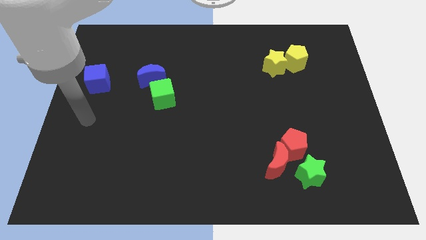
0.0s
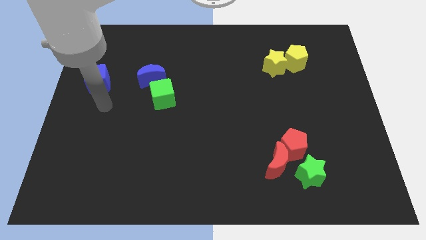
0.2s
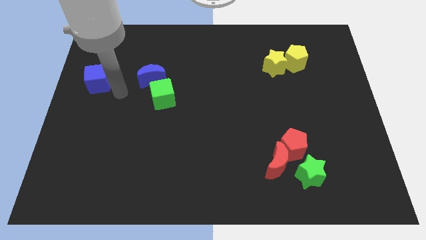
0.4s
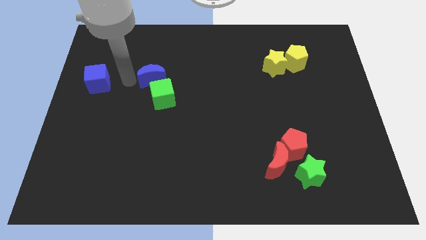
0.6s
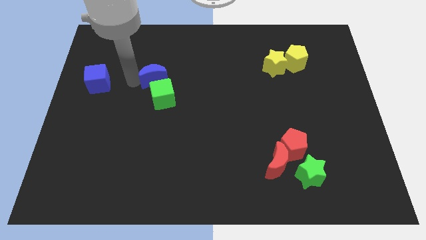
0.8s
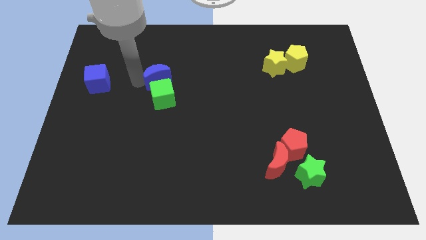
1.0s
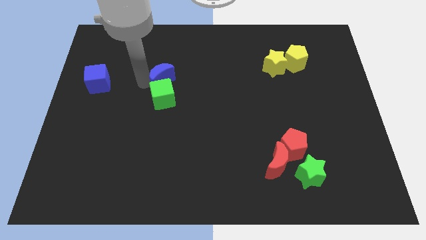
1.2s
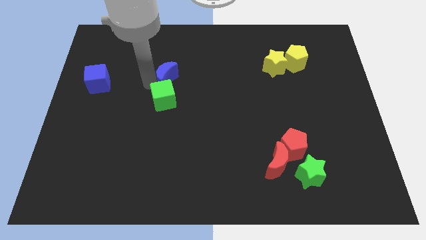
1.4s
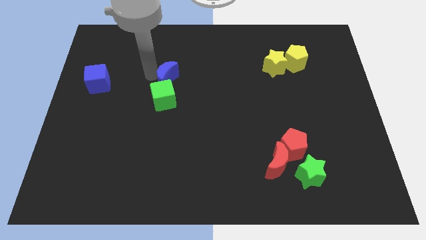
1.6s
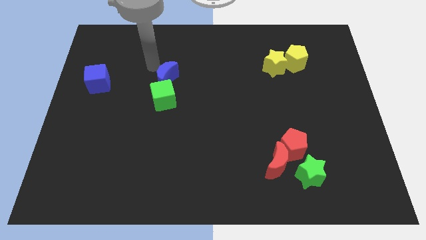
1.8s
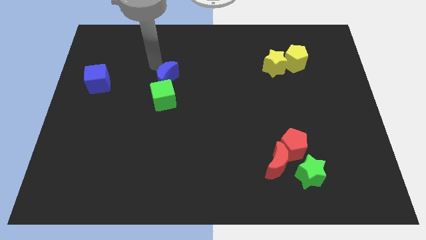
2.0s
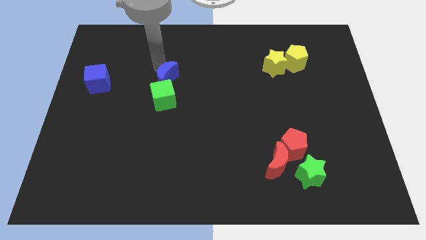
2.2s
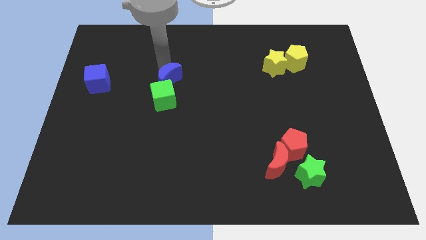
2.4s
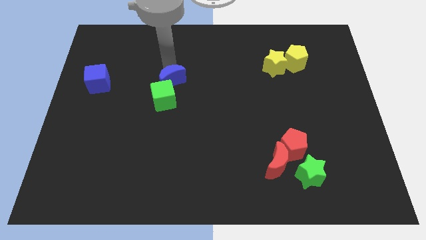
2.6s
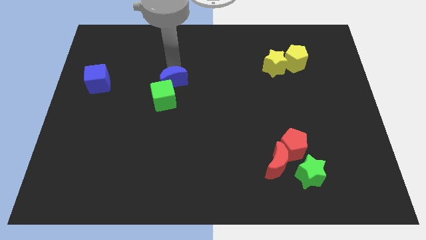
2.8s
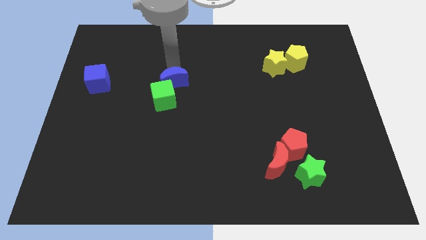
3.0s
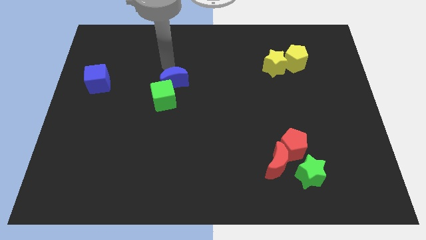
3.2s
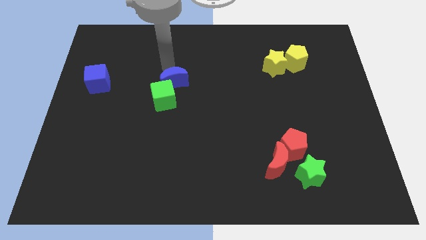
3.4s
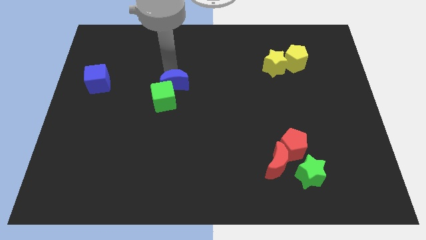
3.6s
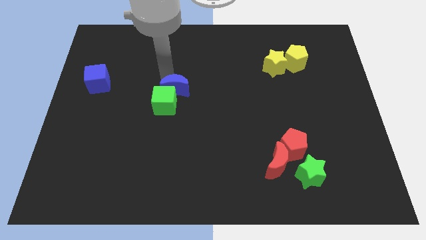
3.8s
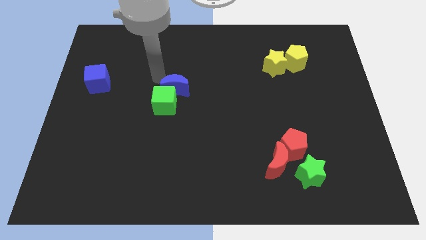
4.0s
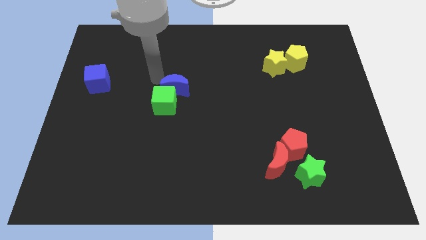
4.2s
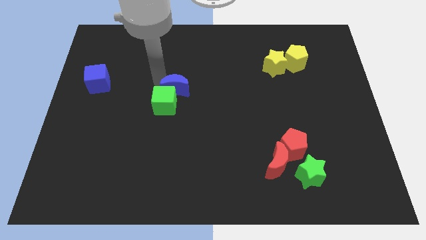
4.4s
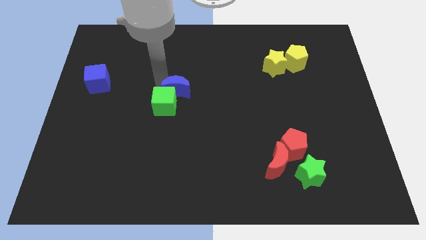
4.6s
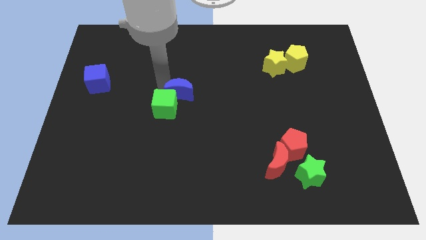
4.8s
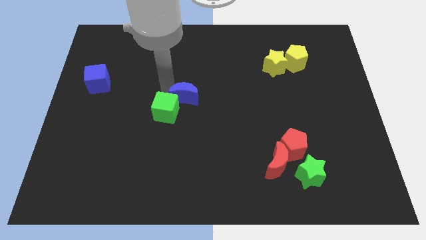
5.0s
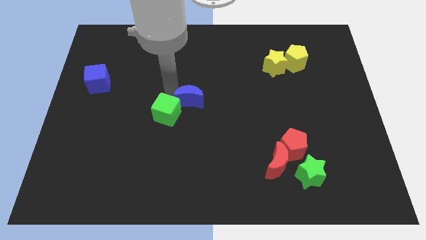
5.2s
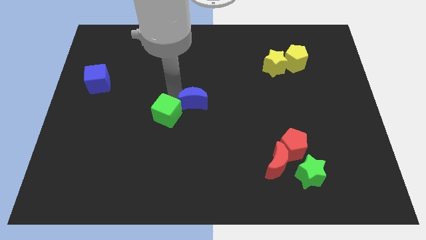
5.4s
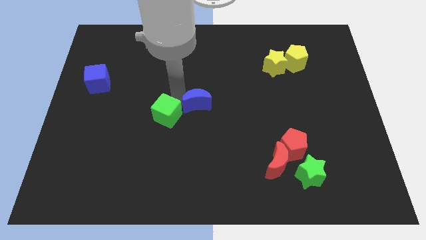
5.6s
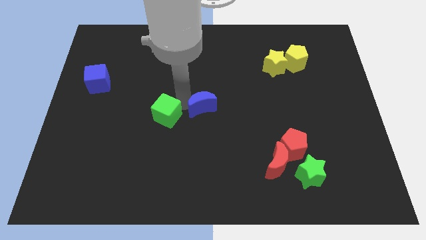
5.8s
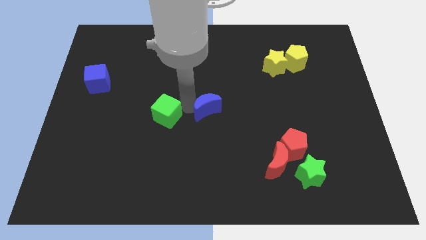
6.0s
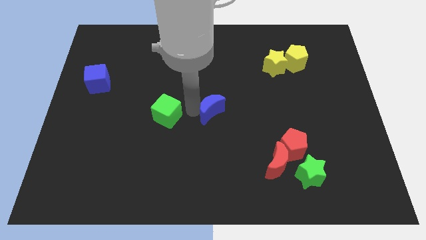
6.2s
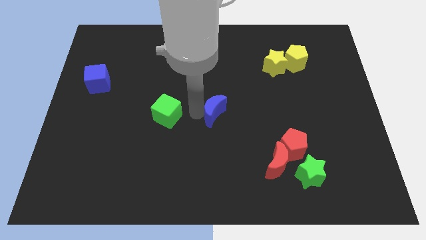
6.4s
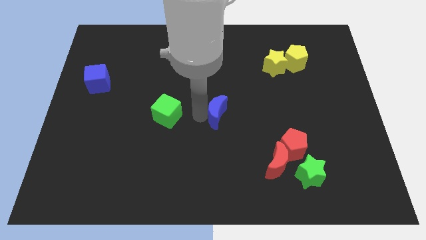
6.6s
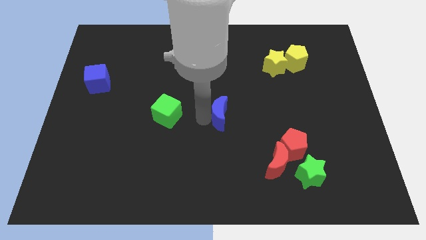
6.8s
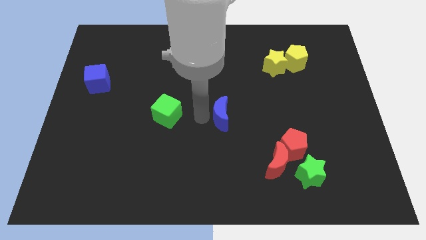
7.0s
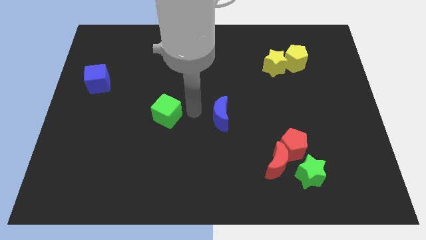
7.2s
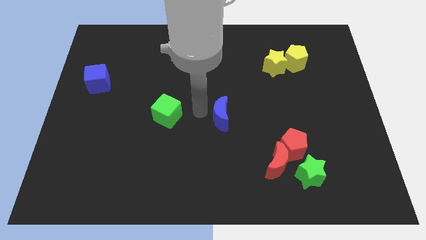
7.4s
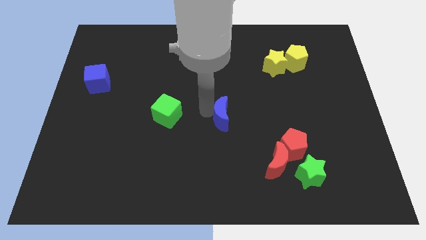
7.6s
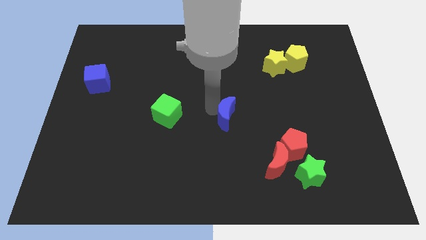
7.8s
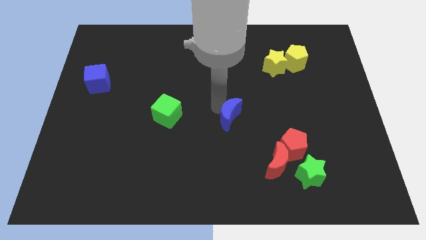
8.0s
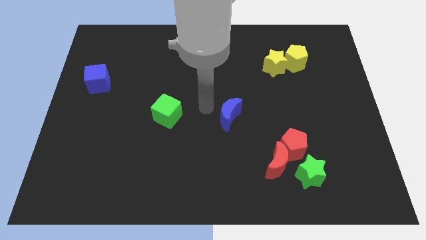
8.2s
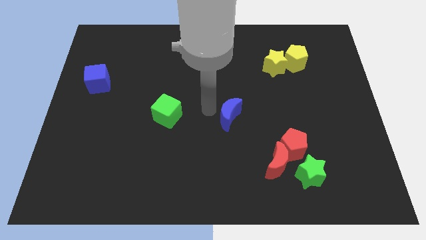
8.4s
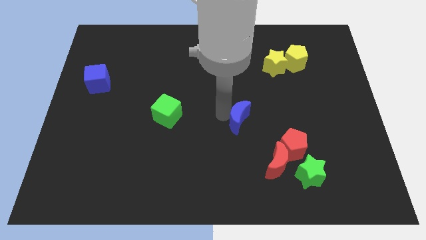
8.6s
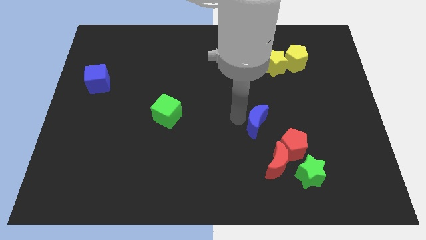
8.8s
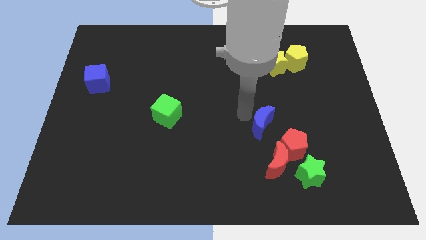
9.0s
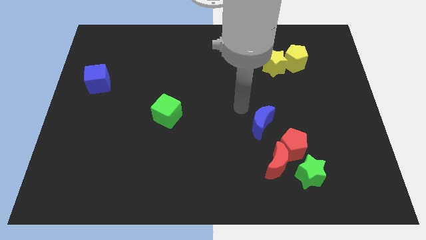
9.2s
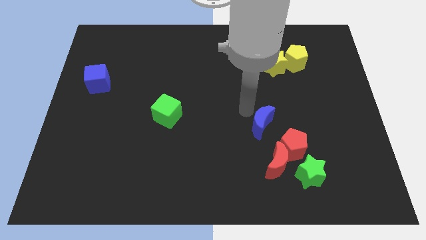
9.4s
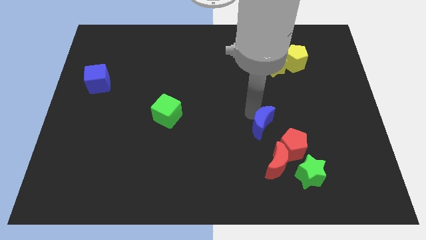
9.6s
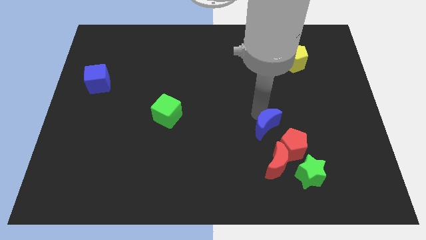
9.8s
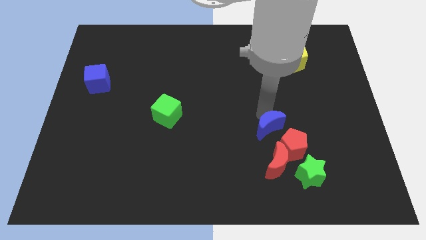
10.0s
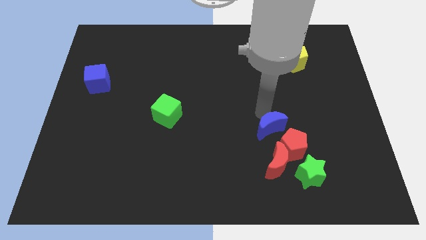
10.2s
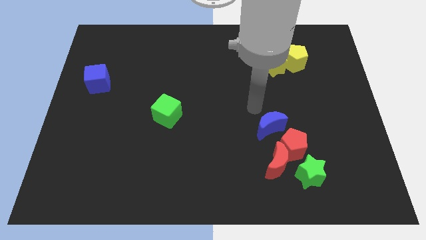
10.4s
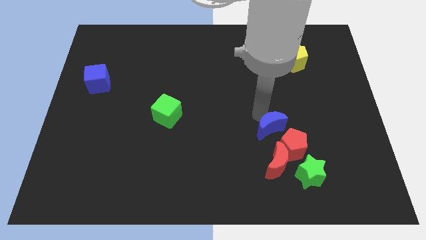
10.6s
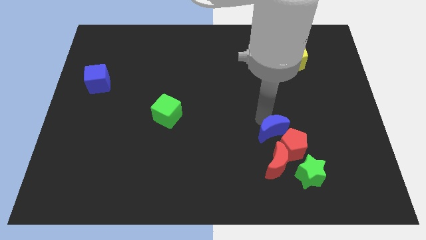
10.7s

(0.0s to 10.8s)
slide the blue moon to the red pentagon

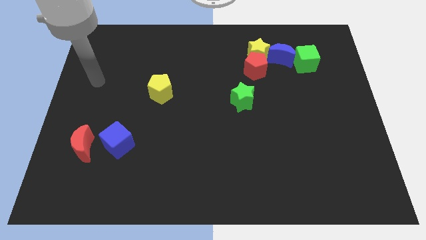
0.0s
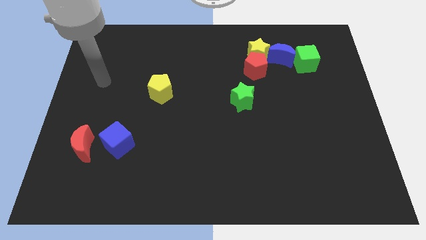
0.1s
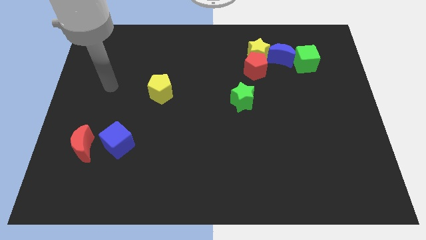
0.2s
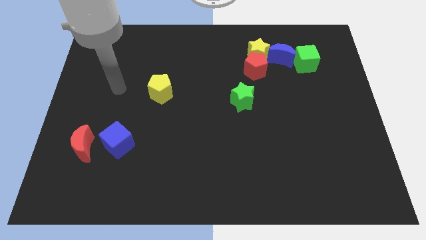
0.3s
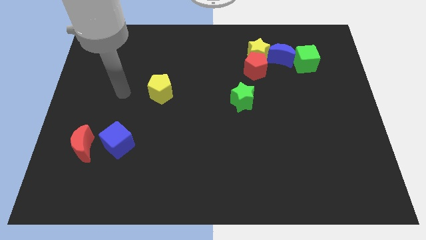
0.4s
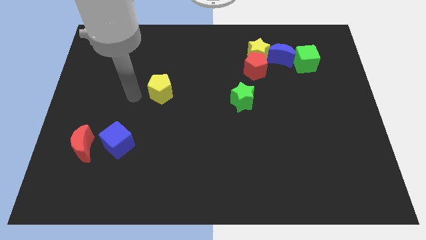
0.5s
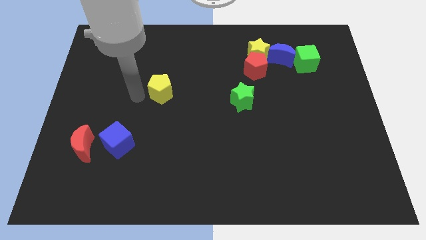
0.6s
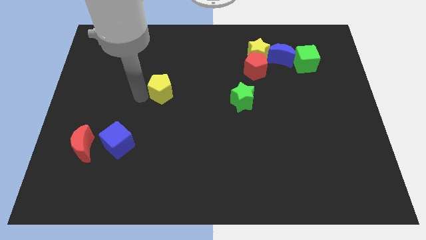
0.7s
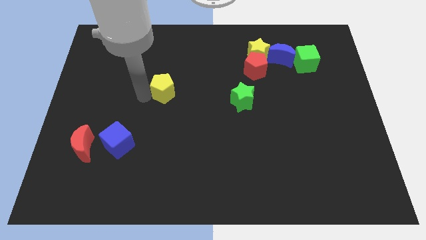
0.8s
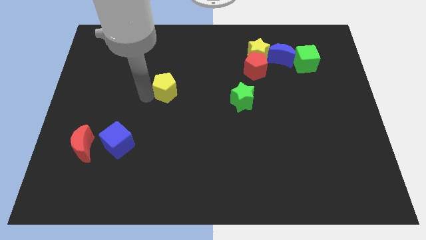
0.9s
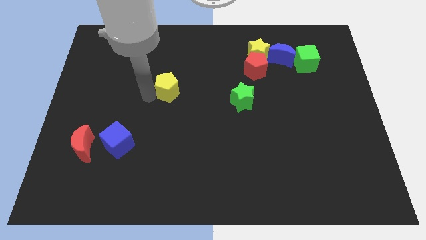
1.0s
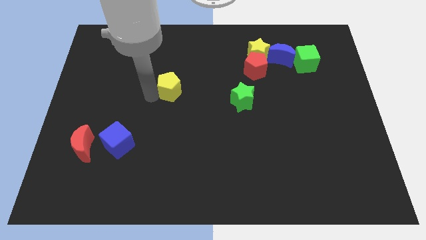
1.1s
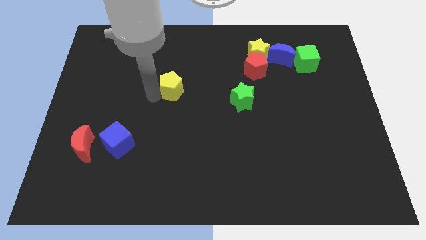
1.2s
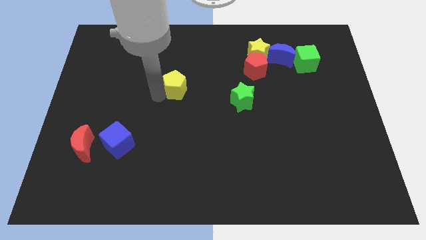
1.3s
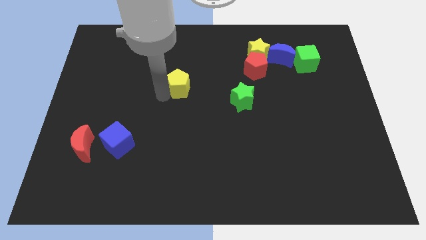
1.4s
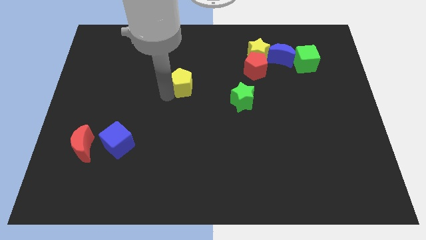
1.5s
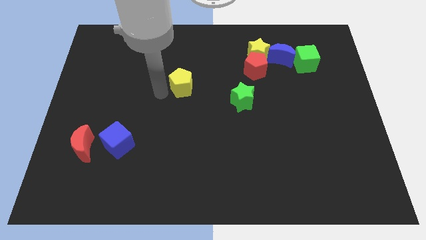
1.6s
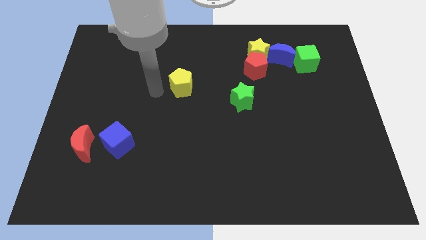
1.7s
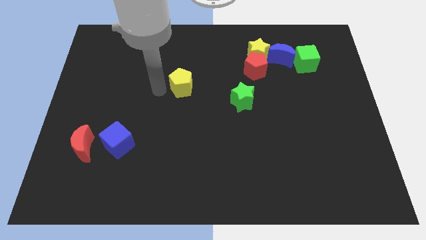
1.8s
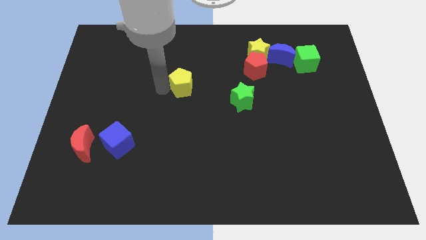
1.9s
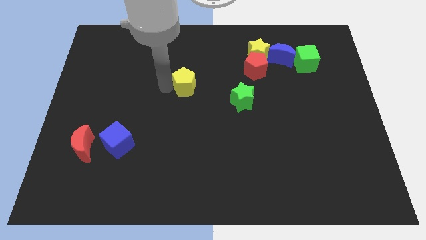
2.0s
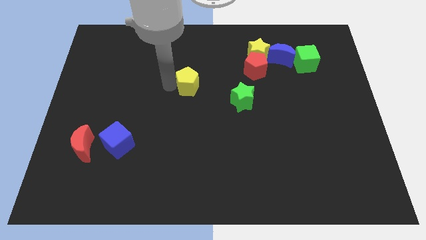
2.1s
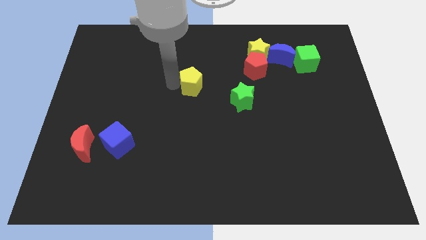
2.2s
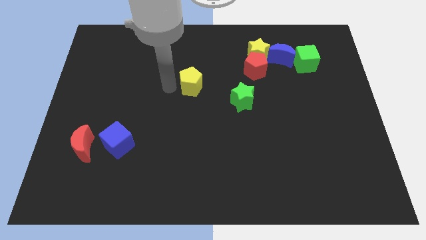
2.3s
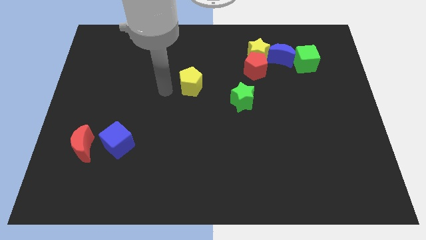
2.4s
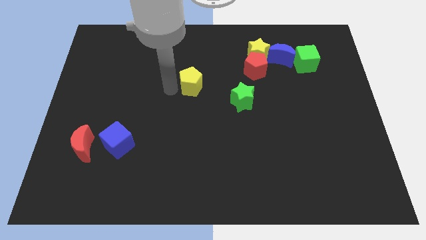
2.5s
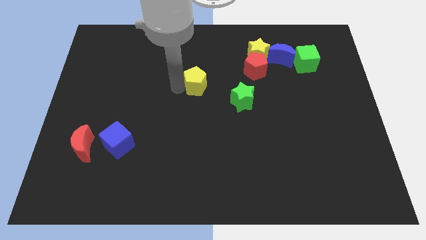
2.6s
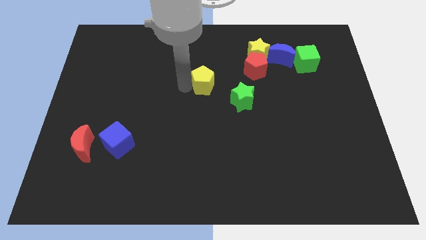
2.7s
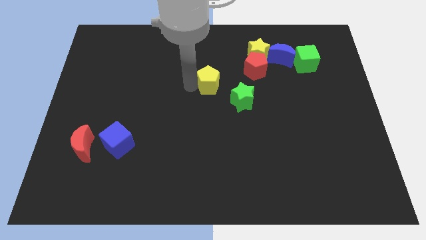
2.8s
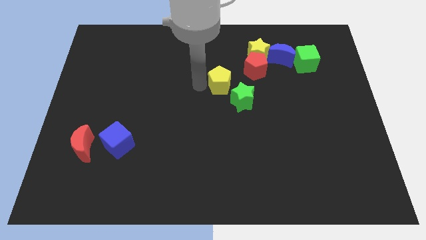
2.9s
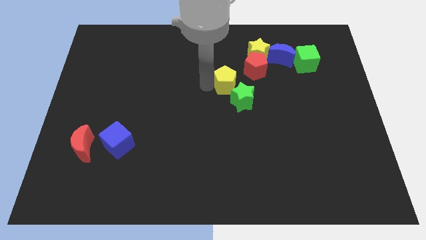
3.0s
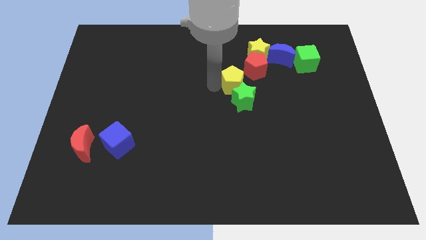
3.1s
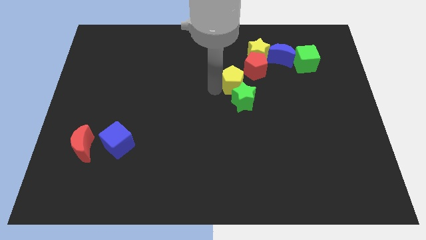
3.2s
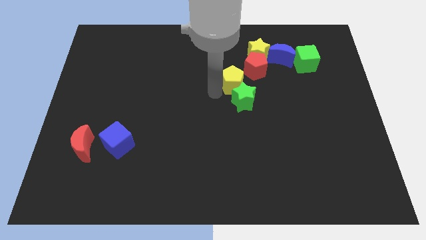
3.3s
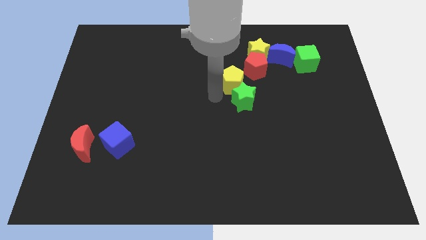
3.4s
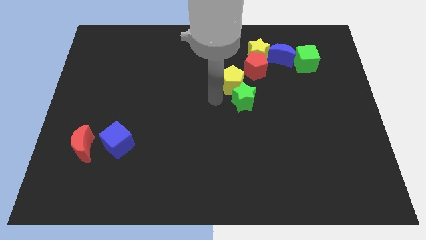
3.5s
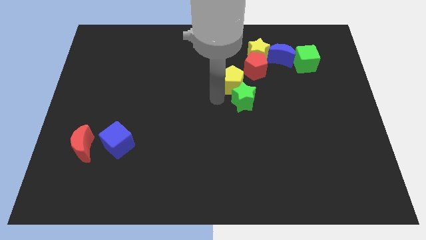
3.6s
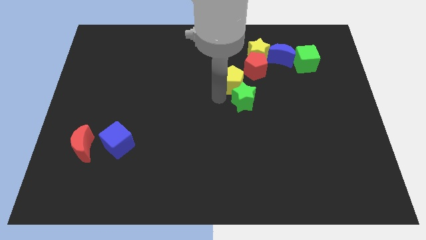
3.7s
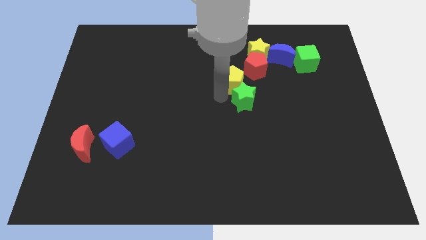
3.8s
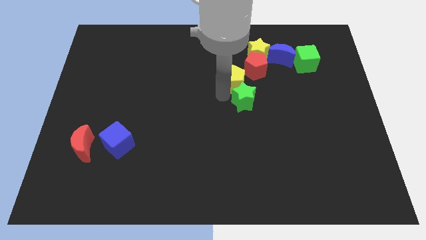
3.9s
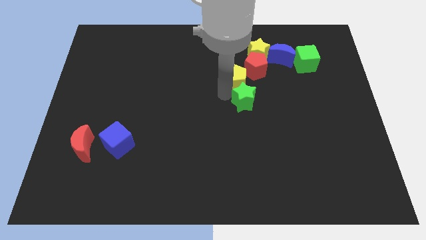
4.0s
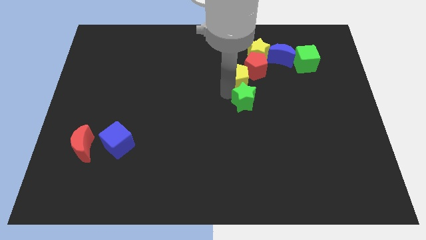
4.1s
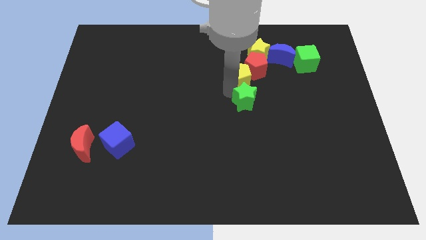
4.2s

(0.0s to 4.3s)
slide the yellow pentagon close to the red pentagon
